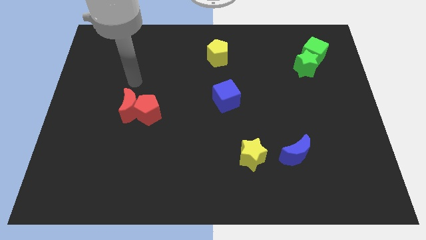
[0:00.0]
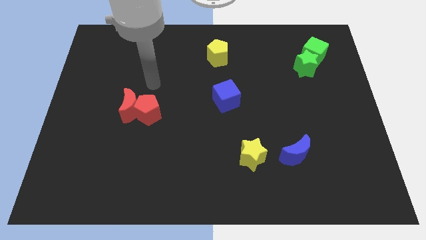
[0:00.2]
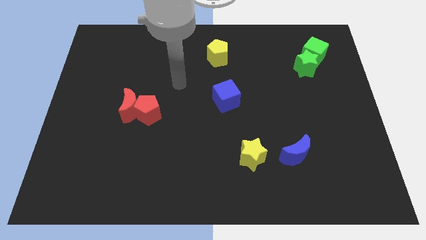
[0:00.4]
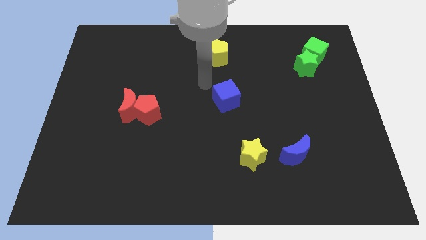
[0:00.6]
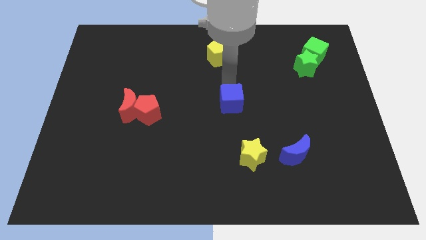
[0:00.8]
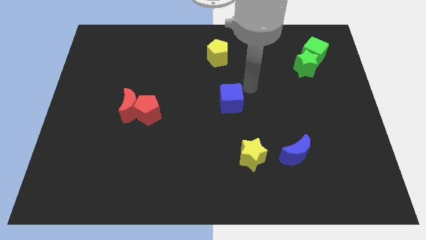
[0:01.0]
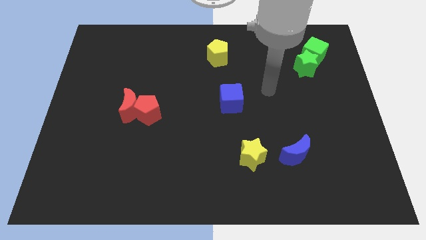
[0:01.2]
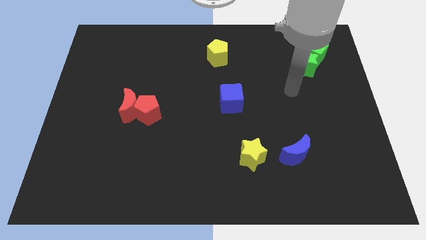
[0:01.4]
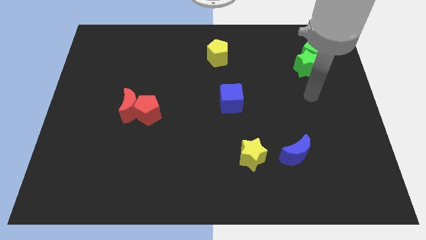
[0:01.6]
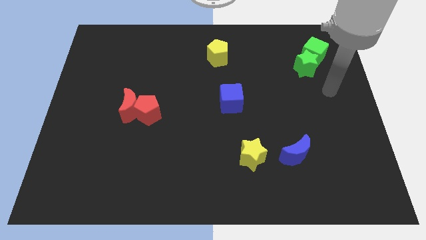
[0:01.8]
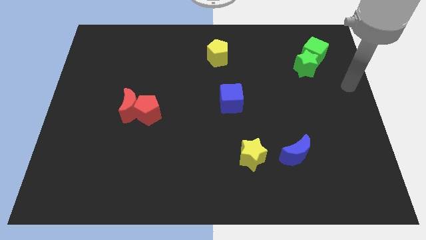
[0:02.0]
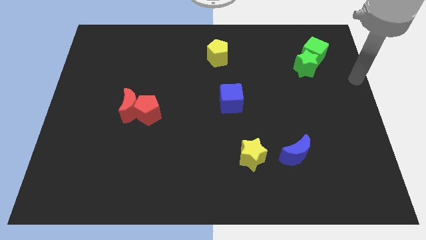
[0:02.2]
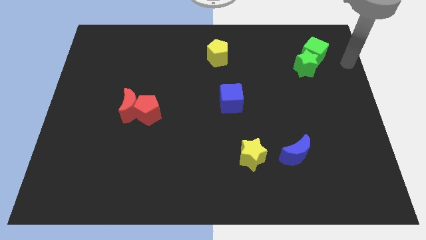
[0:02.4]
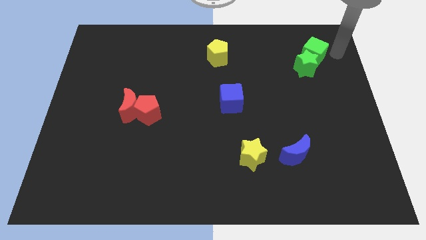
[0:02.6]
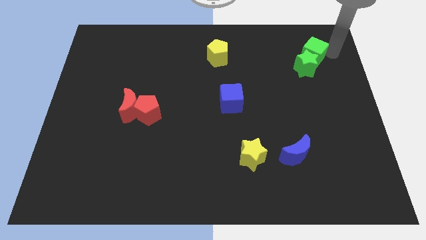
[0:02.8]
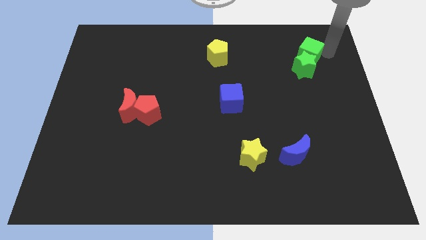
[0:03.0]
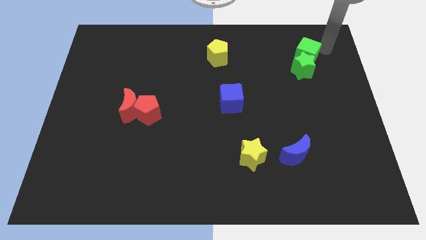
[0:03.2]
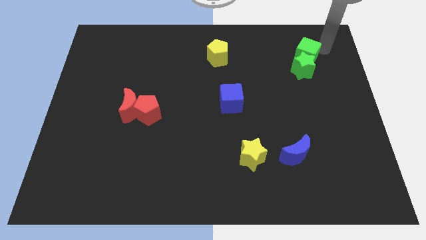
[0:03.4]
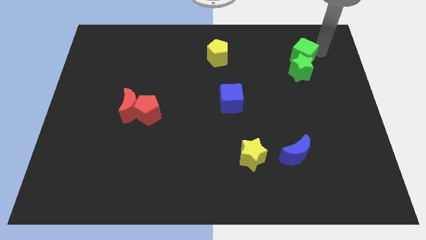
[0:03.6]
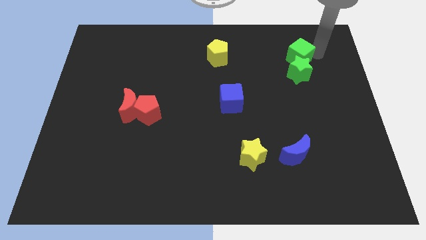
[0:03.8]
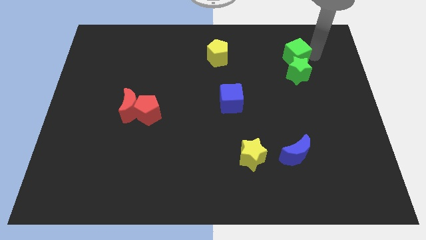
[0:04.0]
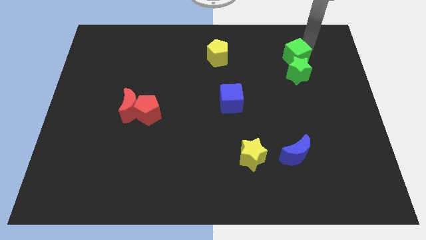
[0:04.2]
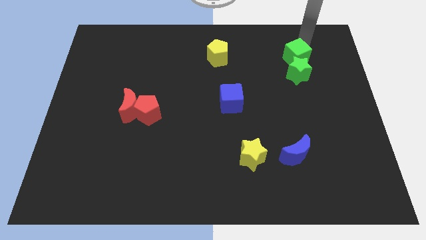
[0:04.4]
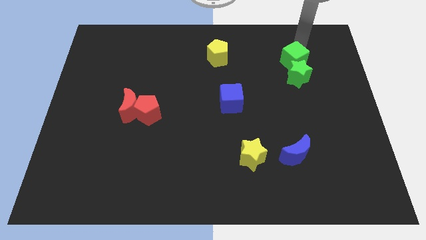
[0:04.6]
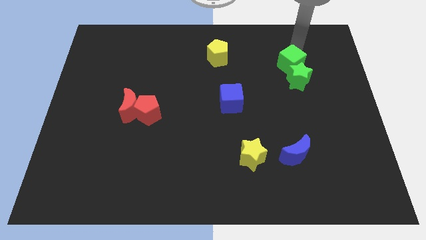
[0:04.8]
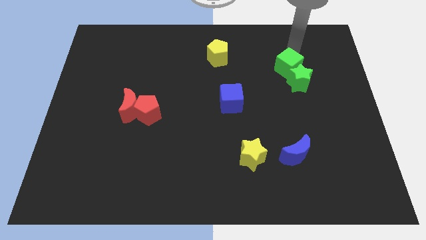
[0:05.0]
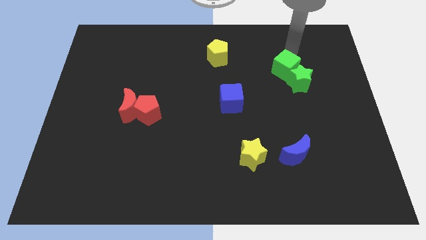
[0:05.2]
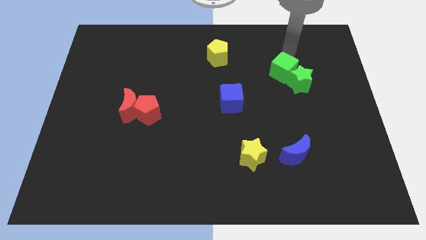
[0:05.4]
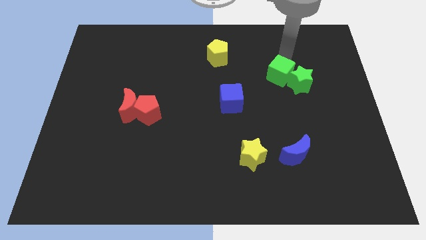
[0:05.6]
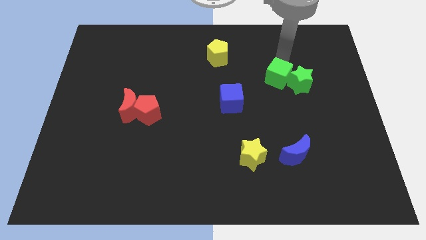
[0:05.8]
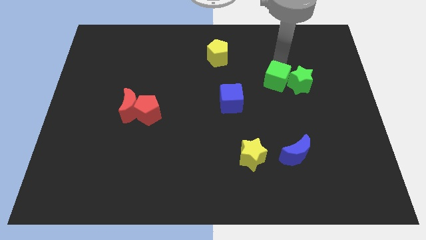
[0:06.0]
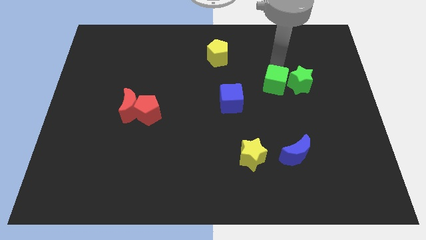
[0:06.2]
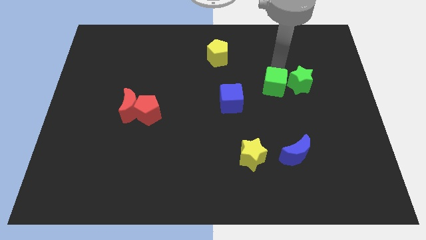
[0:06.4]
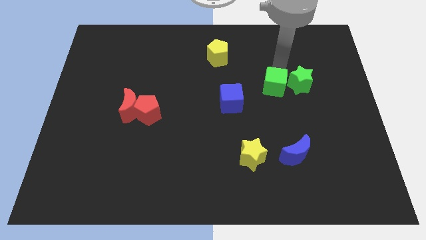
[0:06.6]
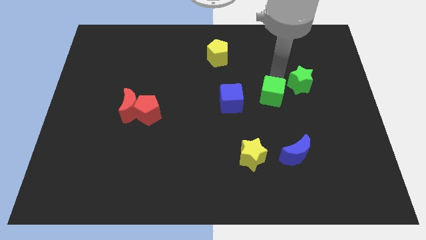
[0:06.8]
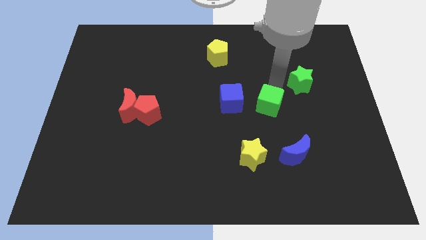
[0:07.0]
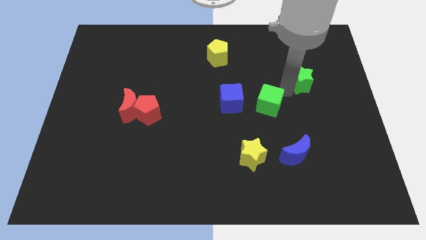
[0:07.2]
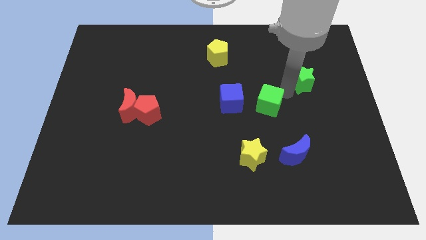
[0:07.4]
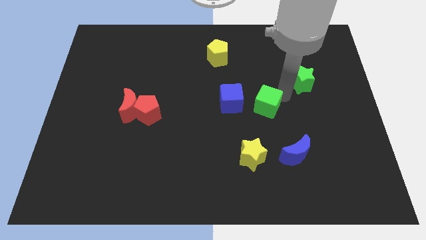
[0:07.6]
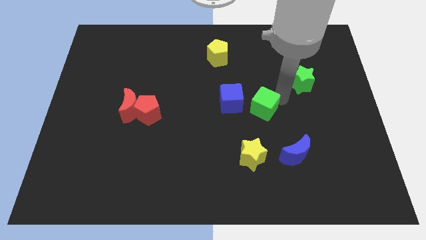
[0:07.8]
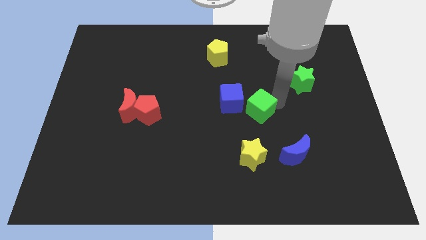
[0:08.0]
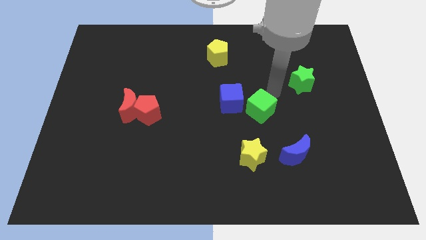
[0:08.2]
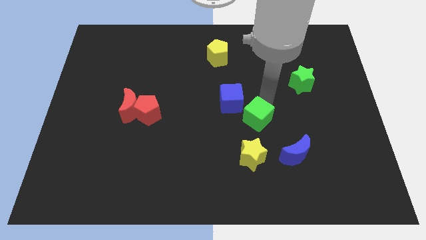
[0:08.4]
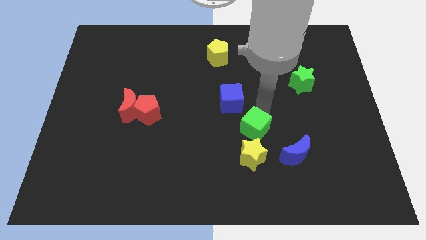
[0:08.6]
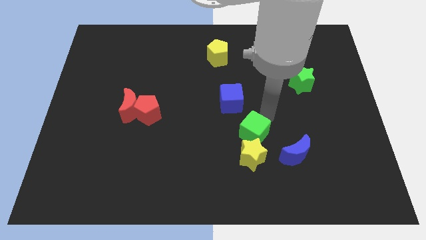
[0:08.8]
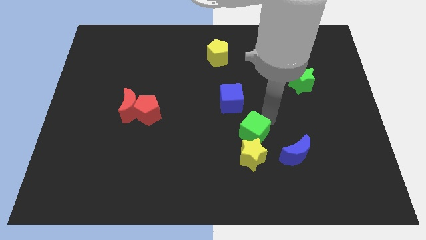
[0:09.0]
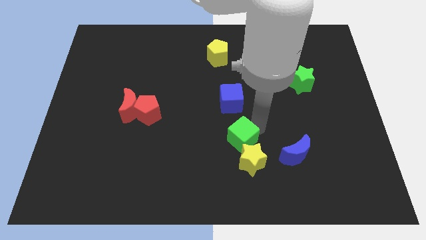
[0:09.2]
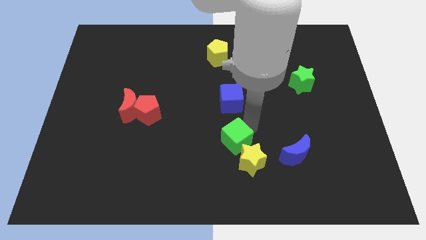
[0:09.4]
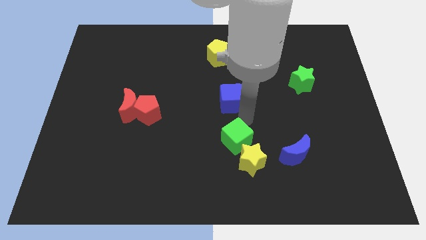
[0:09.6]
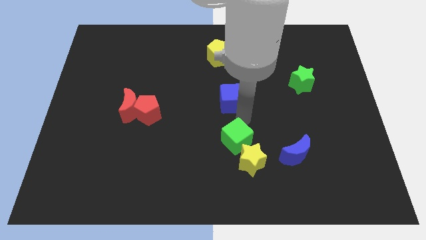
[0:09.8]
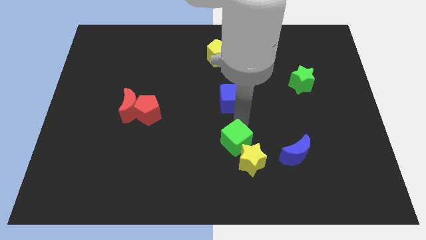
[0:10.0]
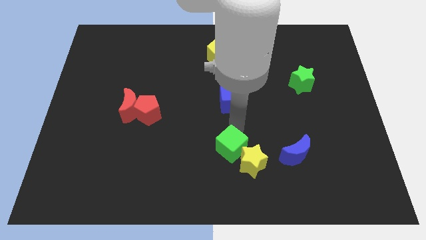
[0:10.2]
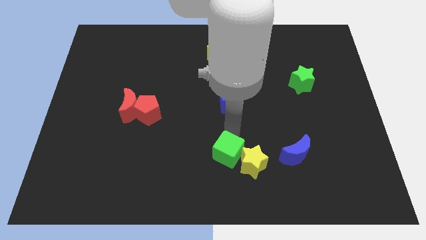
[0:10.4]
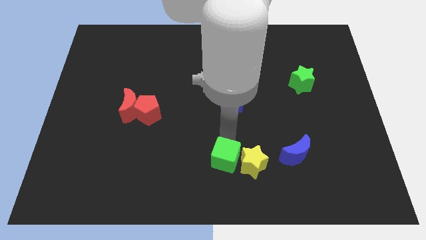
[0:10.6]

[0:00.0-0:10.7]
slide the green cube diagonally down and to the left of the yellow star

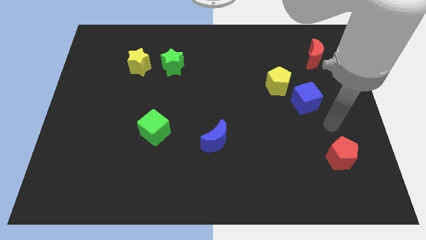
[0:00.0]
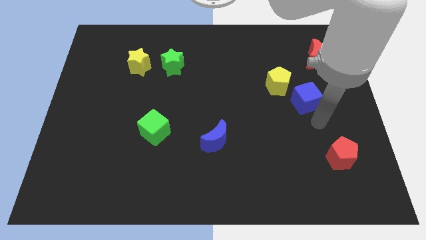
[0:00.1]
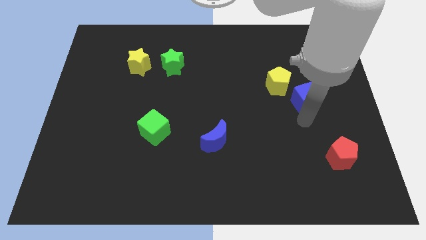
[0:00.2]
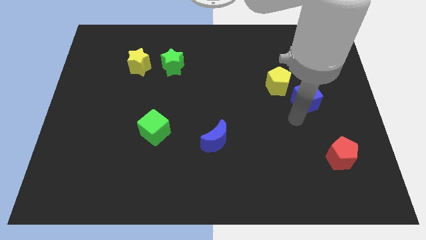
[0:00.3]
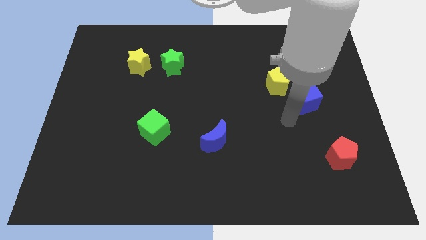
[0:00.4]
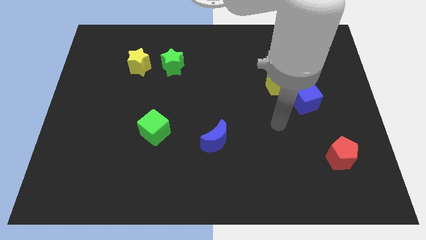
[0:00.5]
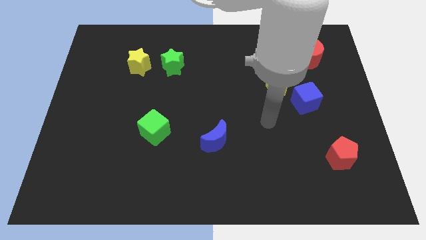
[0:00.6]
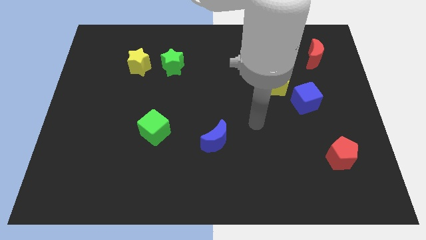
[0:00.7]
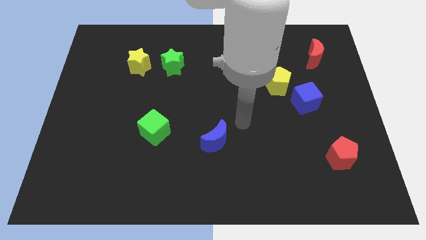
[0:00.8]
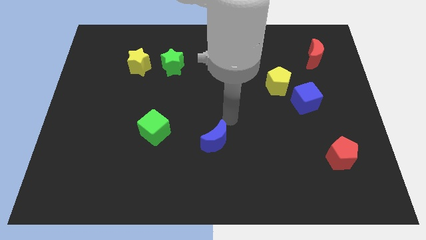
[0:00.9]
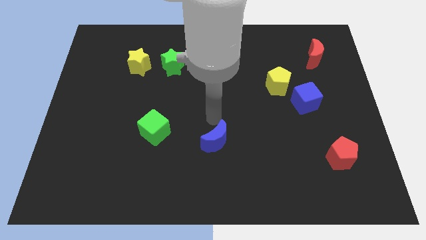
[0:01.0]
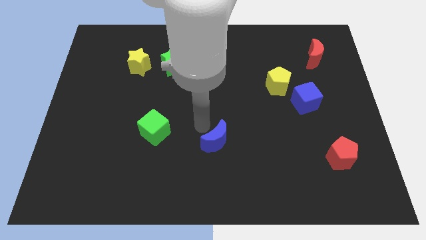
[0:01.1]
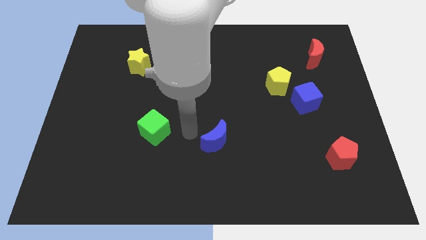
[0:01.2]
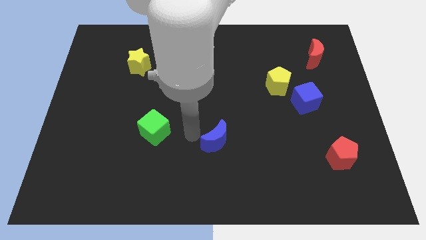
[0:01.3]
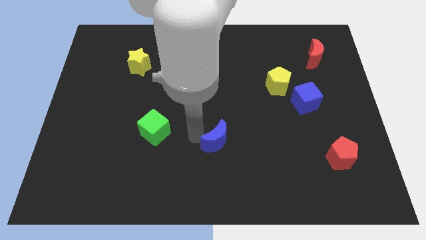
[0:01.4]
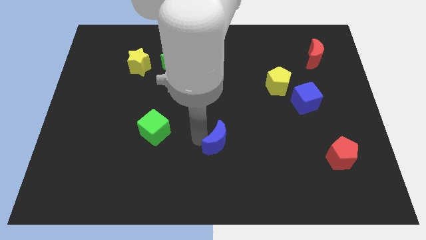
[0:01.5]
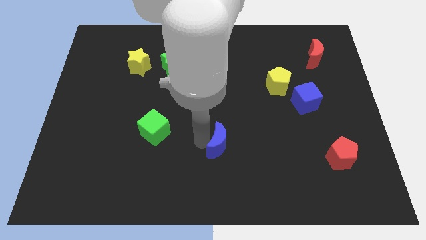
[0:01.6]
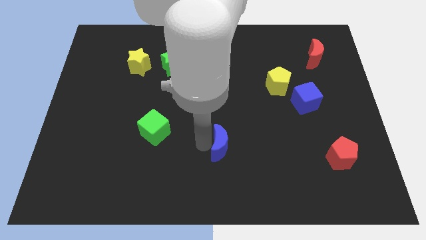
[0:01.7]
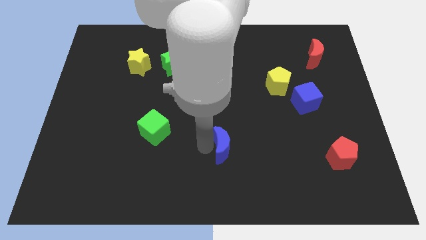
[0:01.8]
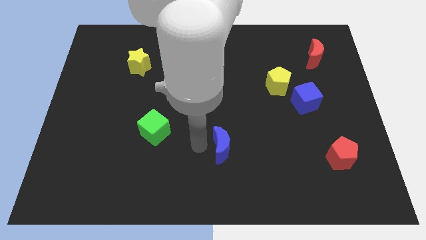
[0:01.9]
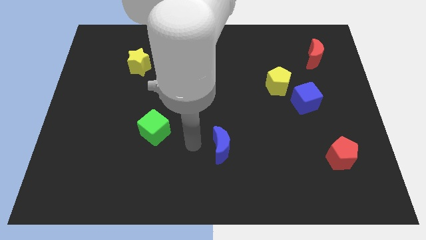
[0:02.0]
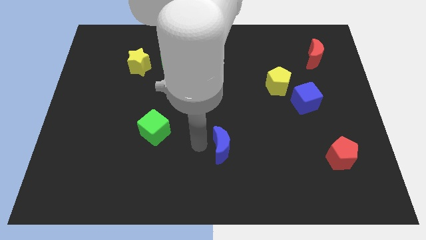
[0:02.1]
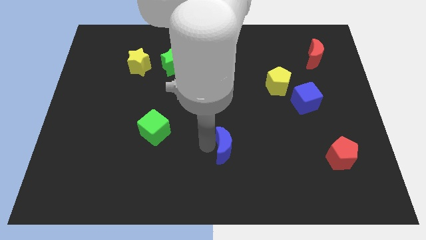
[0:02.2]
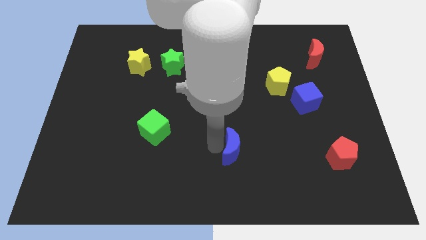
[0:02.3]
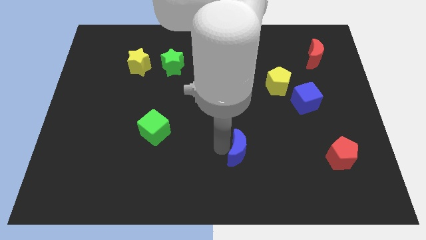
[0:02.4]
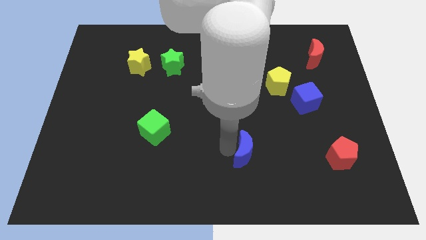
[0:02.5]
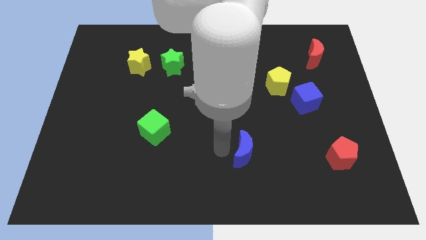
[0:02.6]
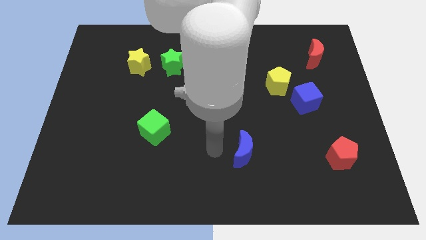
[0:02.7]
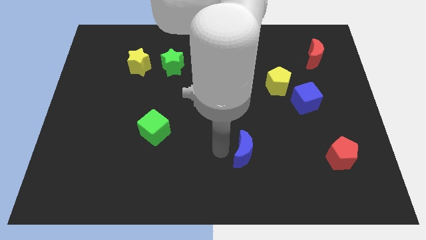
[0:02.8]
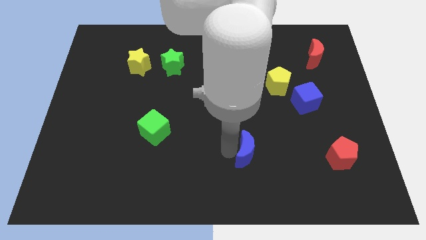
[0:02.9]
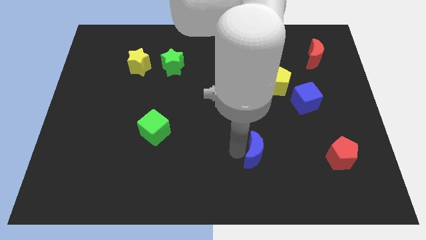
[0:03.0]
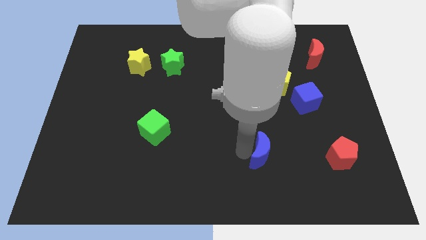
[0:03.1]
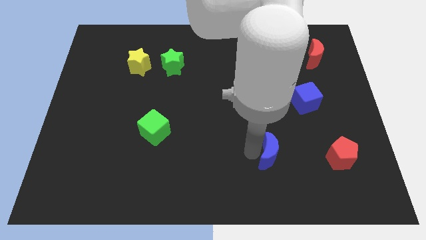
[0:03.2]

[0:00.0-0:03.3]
push the blue moon to the left of the red pentagon
